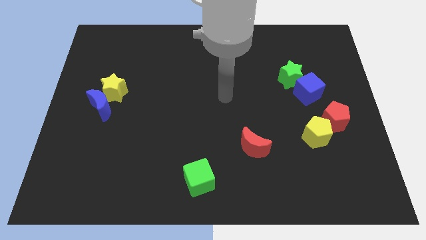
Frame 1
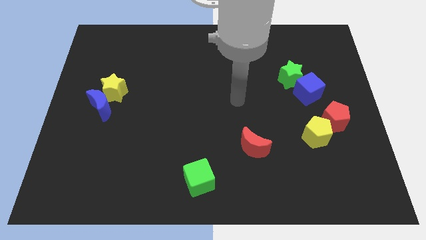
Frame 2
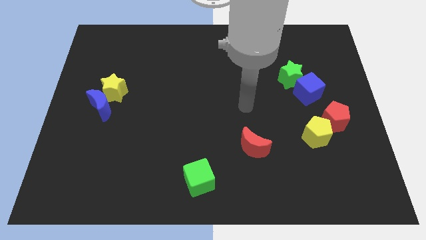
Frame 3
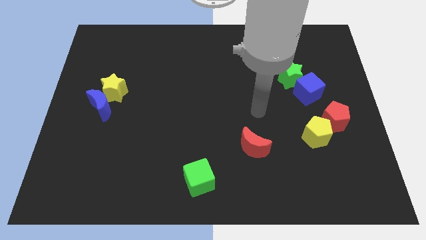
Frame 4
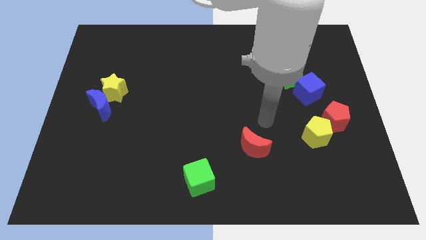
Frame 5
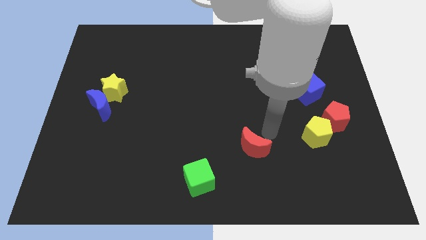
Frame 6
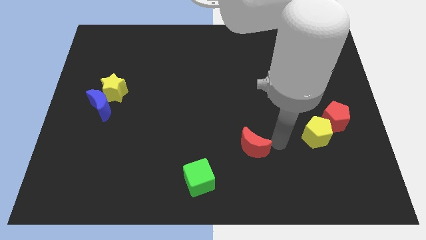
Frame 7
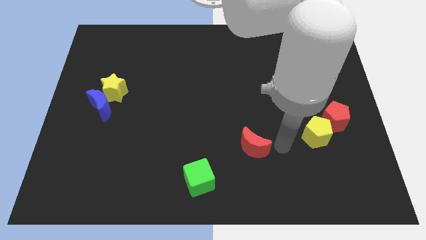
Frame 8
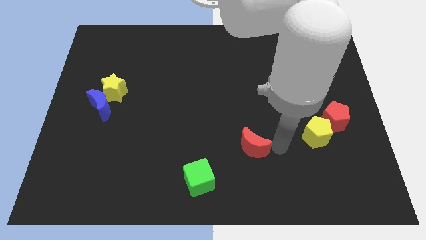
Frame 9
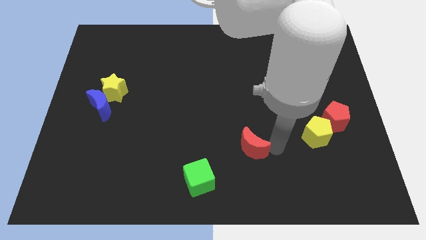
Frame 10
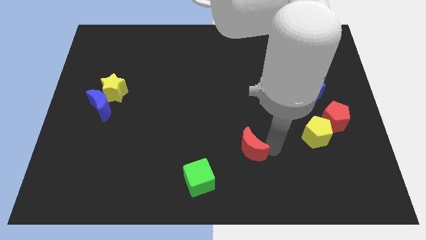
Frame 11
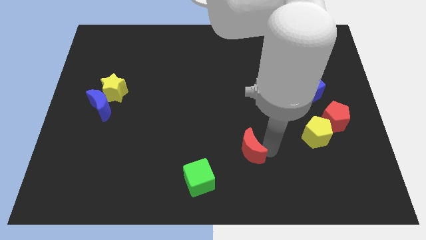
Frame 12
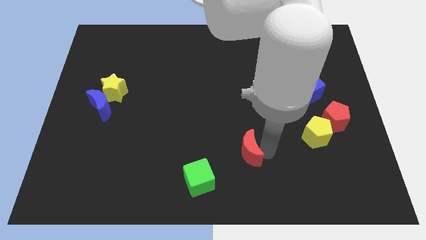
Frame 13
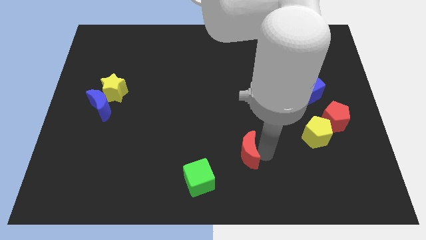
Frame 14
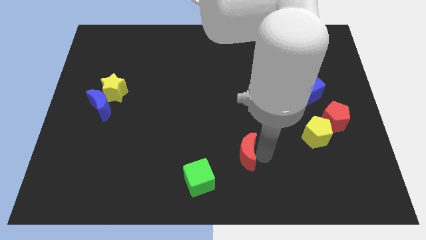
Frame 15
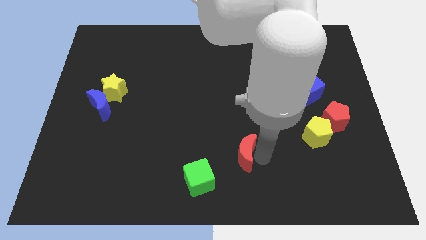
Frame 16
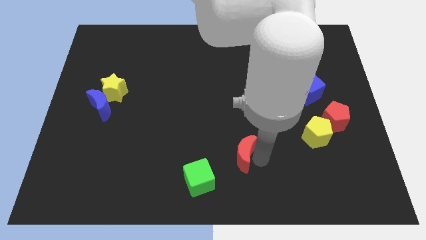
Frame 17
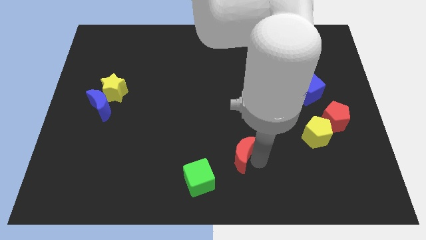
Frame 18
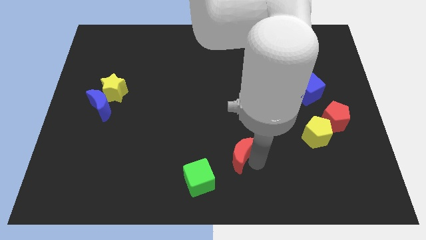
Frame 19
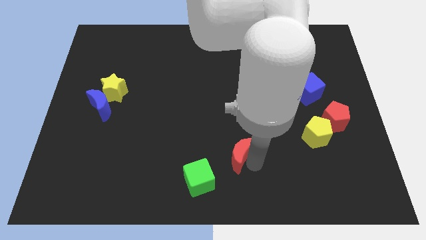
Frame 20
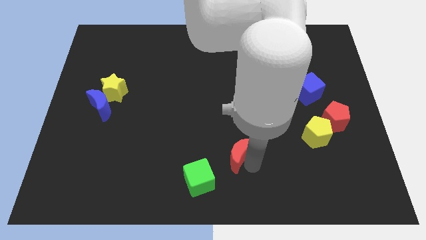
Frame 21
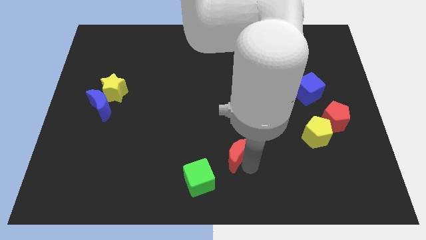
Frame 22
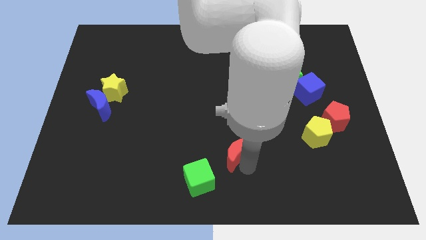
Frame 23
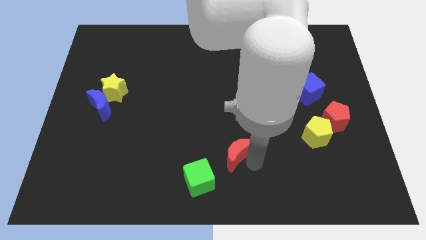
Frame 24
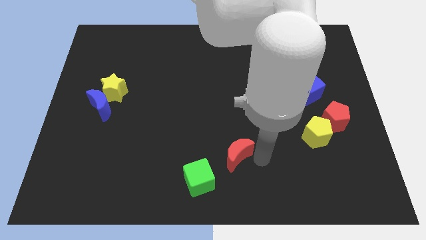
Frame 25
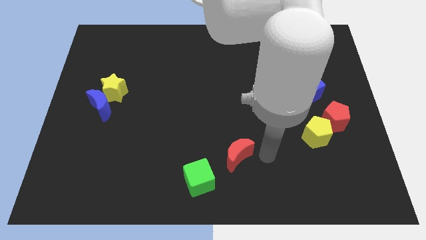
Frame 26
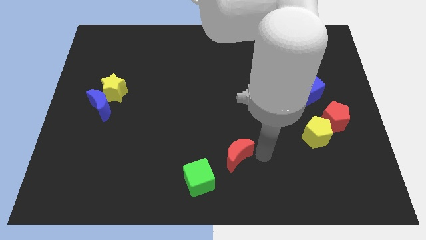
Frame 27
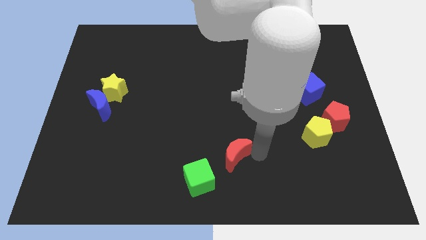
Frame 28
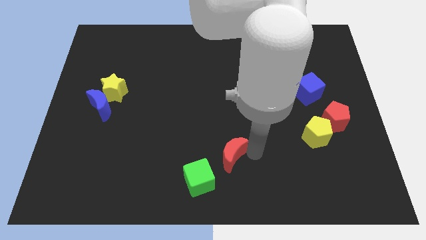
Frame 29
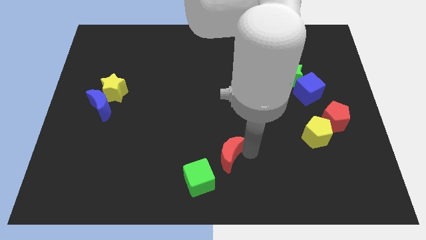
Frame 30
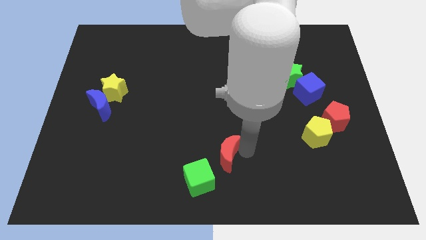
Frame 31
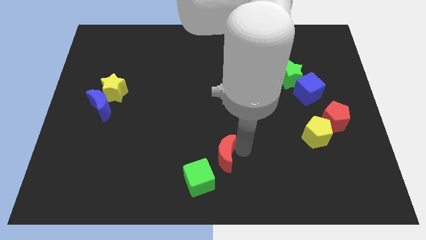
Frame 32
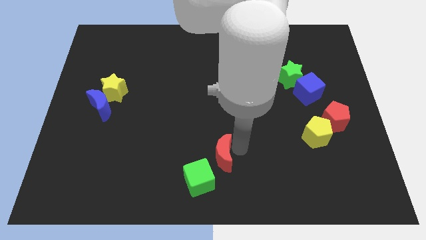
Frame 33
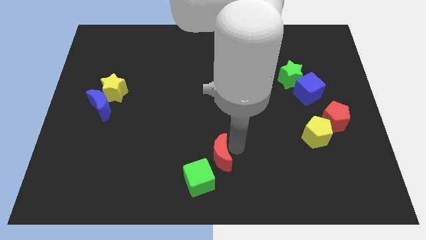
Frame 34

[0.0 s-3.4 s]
move the red moon to the left somewhat

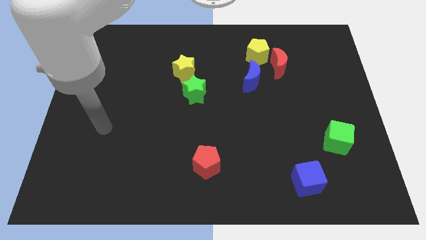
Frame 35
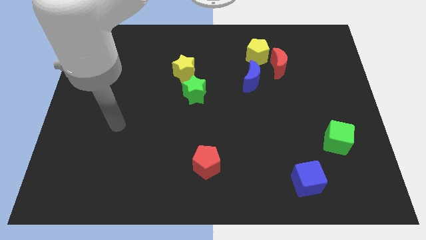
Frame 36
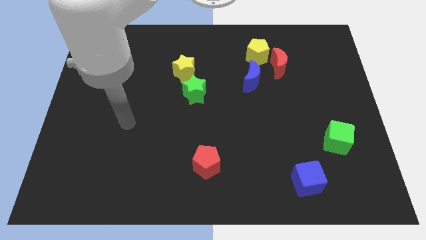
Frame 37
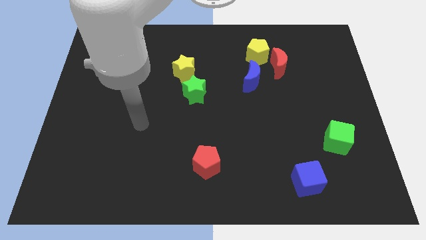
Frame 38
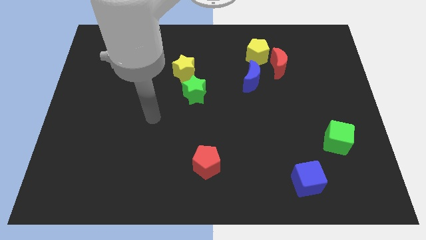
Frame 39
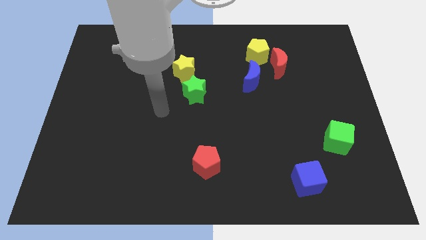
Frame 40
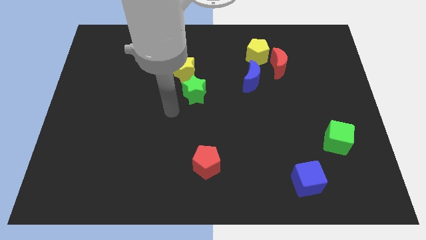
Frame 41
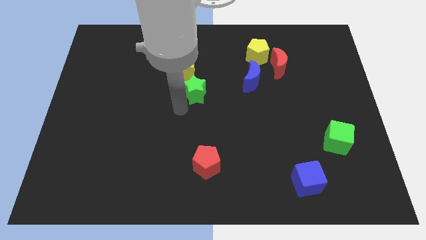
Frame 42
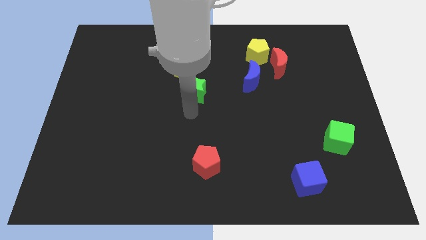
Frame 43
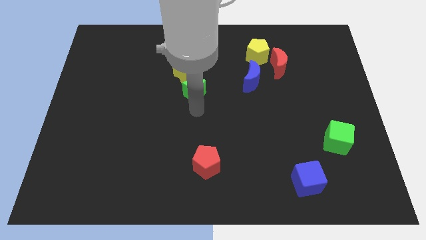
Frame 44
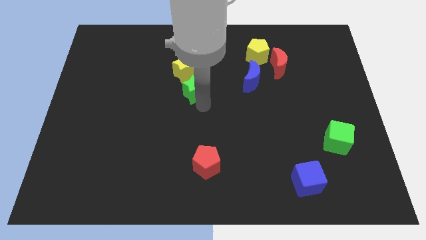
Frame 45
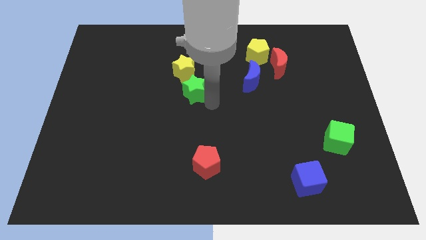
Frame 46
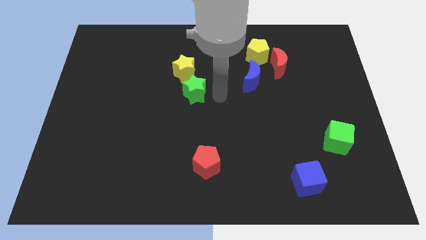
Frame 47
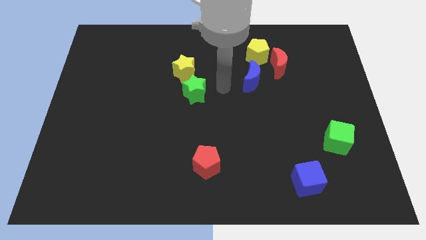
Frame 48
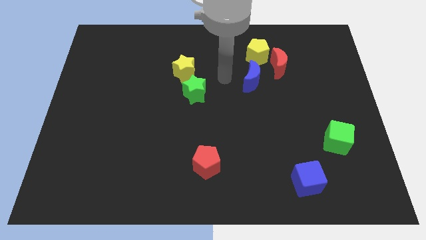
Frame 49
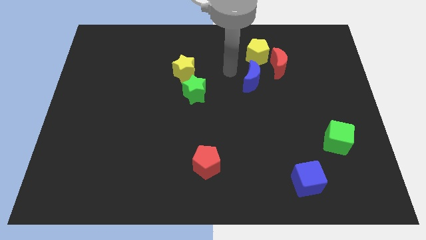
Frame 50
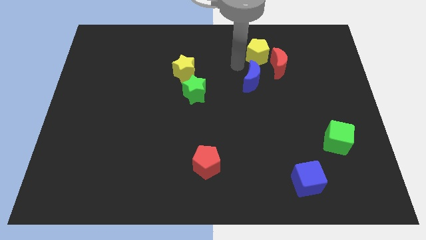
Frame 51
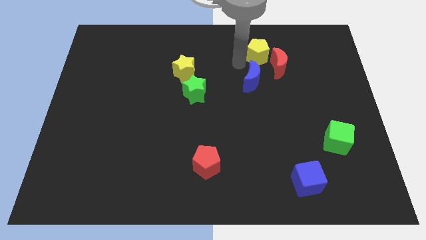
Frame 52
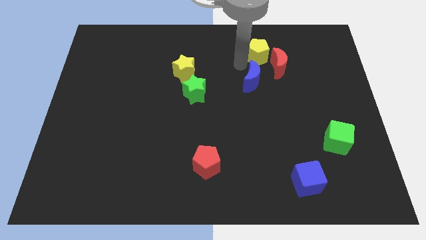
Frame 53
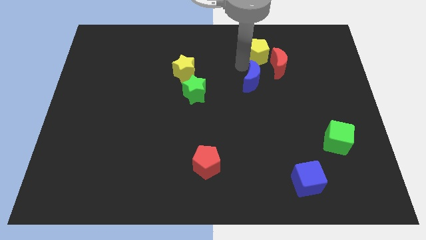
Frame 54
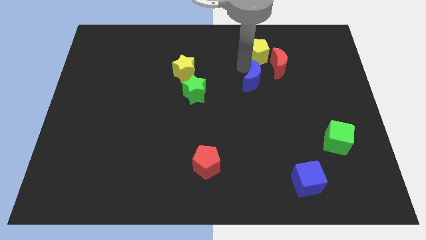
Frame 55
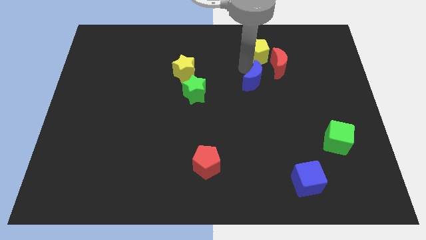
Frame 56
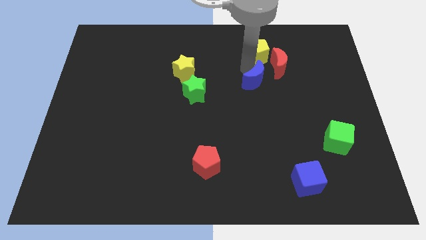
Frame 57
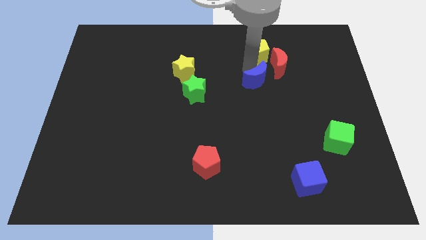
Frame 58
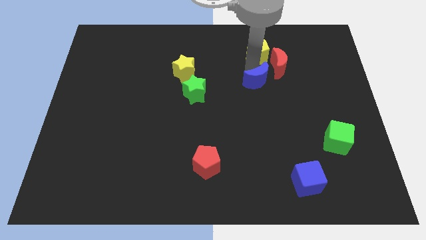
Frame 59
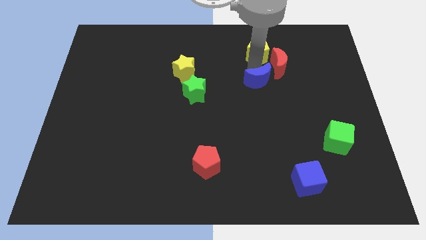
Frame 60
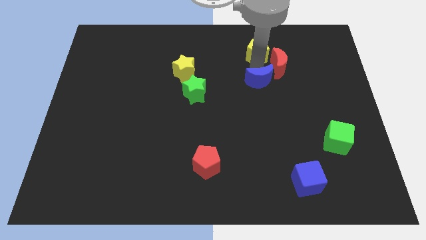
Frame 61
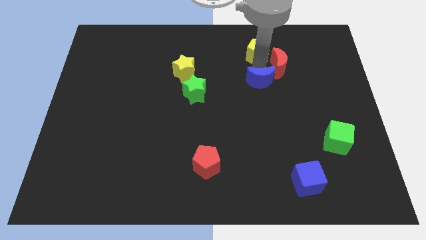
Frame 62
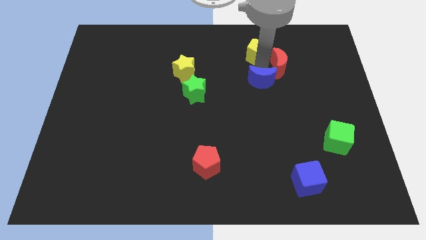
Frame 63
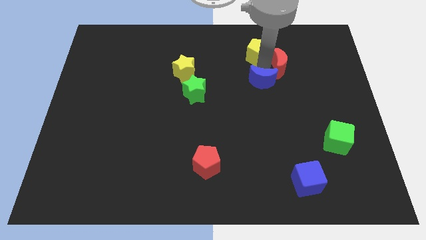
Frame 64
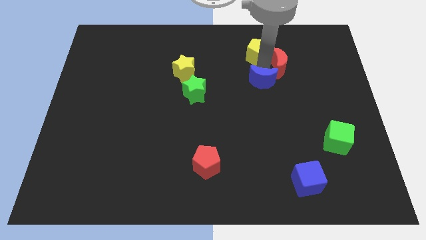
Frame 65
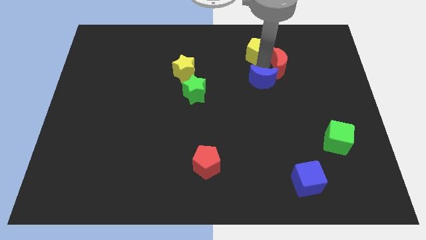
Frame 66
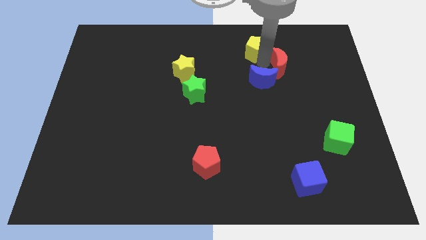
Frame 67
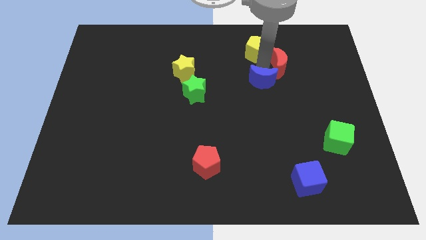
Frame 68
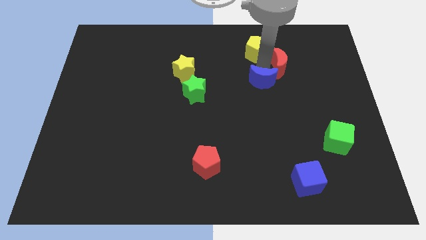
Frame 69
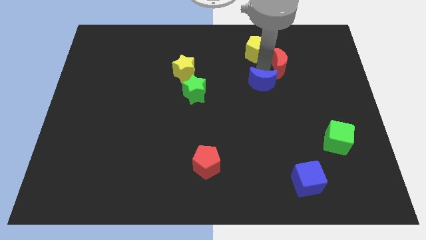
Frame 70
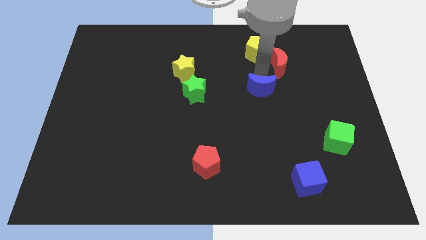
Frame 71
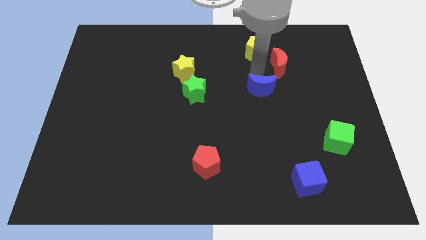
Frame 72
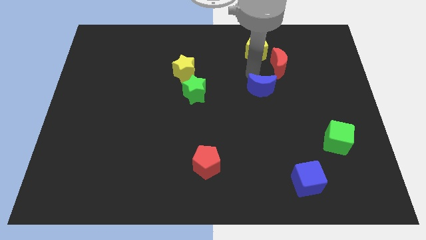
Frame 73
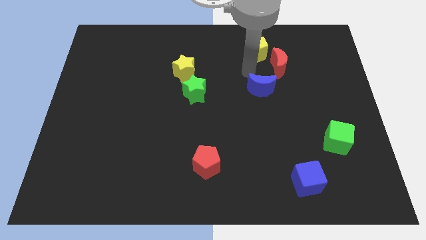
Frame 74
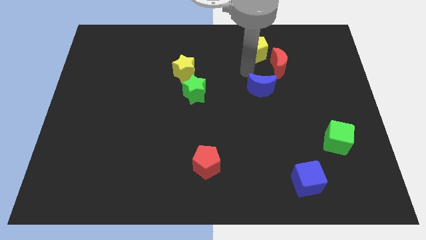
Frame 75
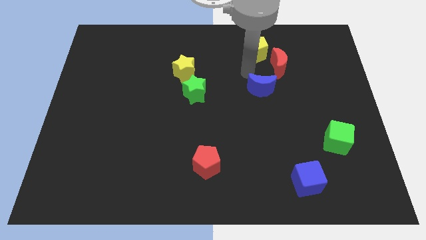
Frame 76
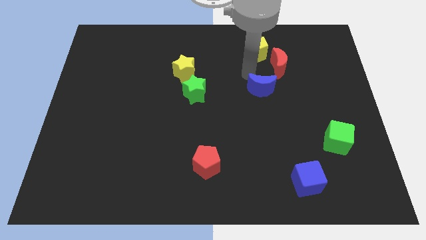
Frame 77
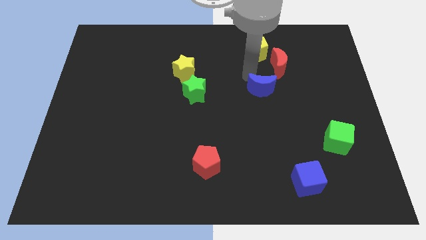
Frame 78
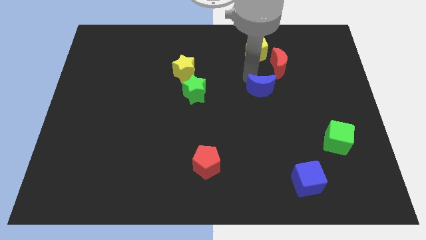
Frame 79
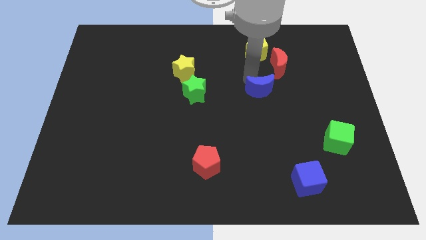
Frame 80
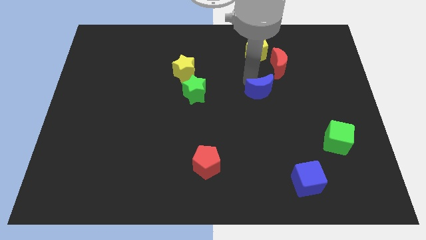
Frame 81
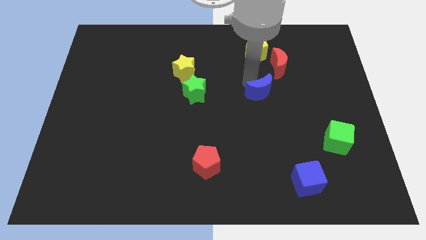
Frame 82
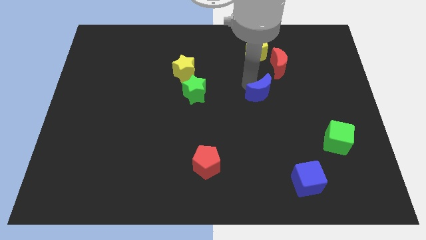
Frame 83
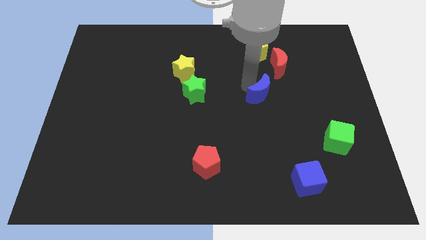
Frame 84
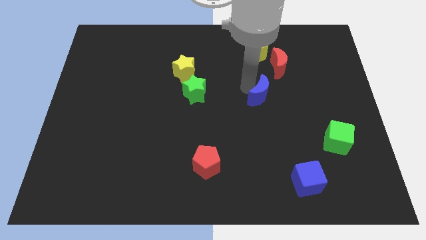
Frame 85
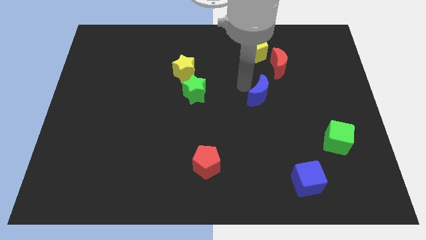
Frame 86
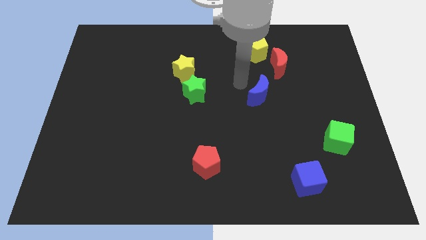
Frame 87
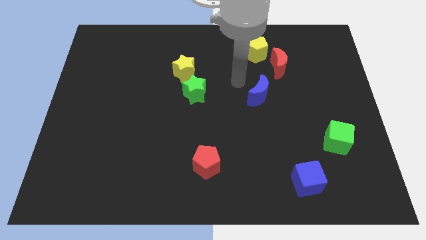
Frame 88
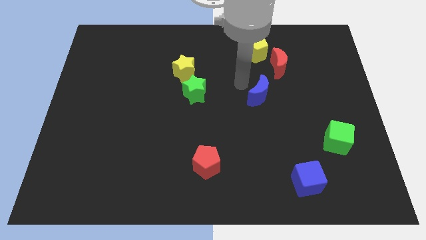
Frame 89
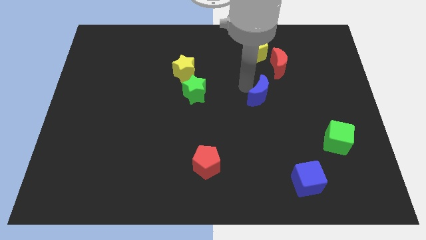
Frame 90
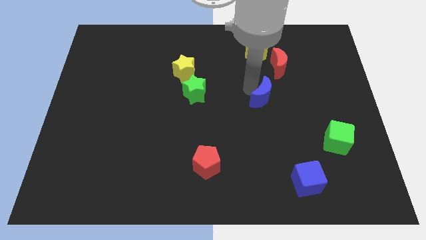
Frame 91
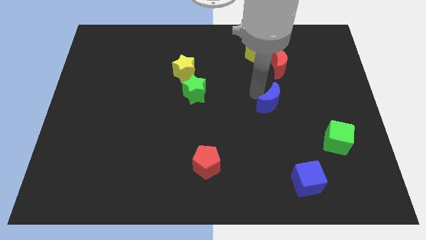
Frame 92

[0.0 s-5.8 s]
slightly slide the blue moon diagonally downwards and right
